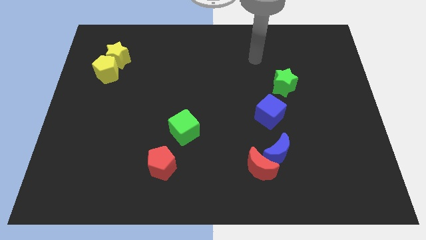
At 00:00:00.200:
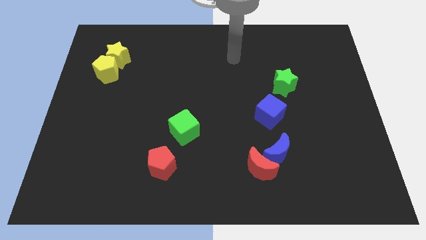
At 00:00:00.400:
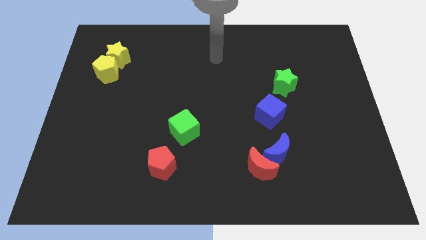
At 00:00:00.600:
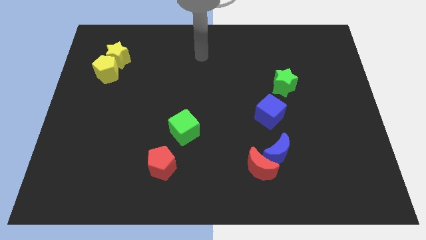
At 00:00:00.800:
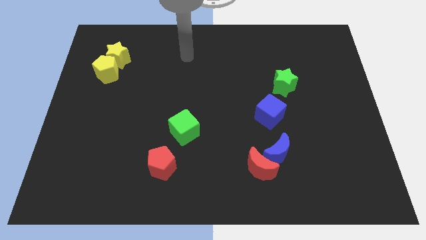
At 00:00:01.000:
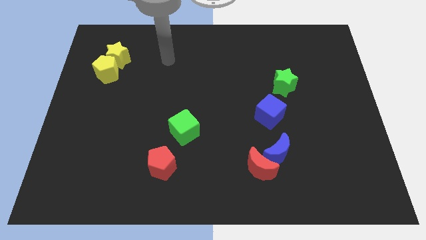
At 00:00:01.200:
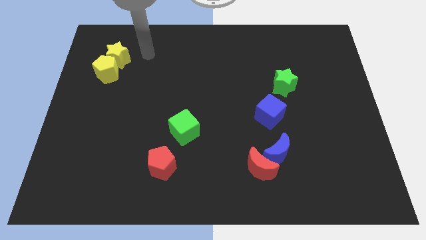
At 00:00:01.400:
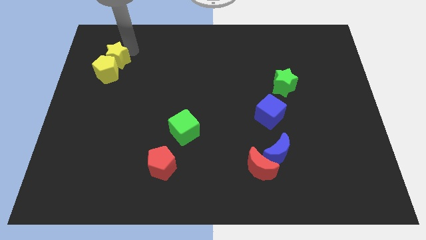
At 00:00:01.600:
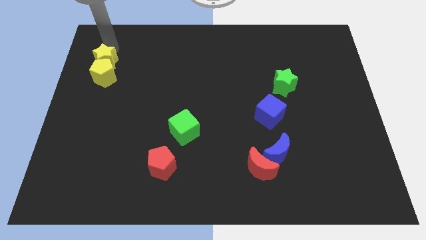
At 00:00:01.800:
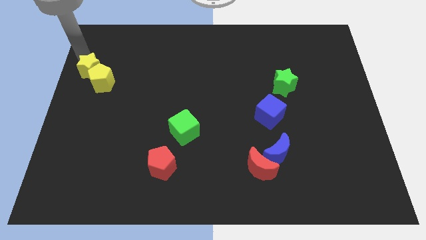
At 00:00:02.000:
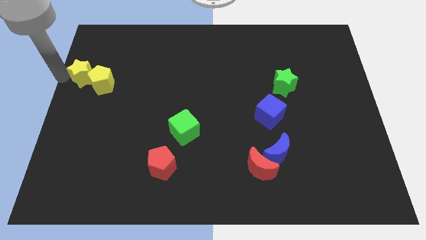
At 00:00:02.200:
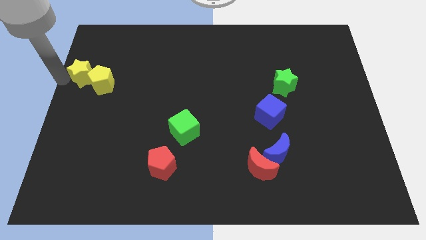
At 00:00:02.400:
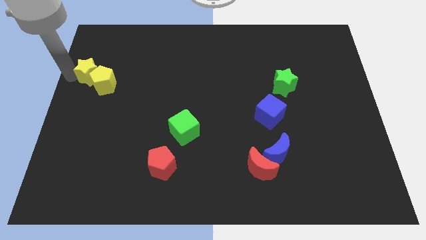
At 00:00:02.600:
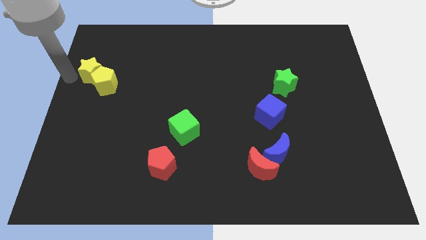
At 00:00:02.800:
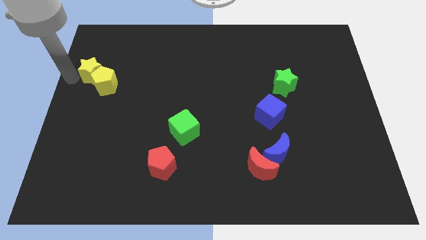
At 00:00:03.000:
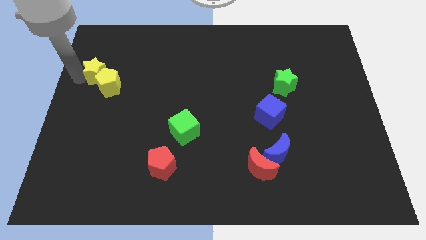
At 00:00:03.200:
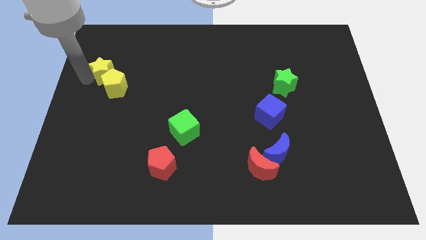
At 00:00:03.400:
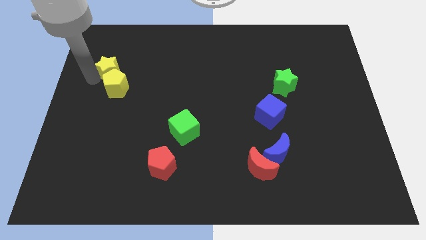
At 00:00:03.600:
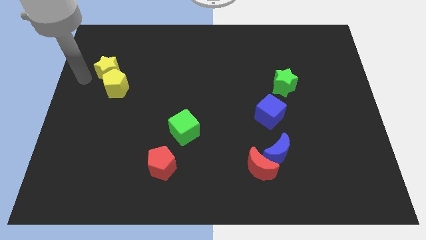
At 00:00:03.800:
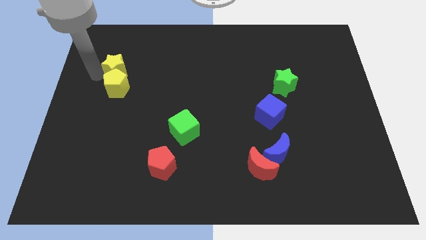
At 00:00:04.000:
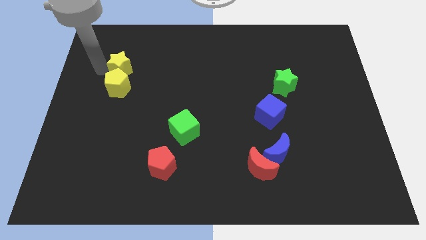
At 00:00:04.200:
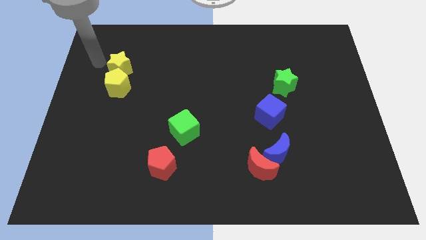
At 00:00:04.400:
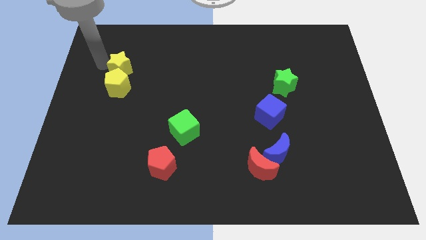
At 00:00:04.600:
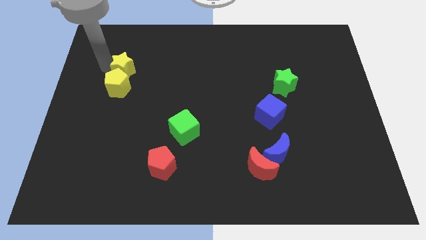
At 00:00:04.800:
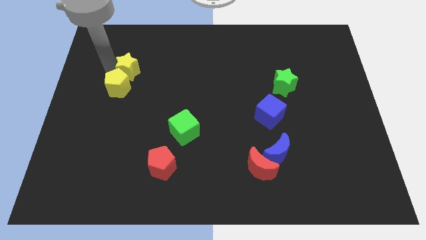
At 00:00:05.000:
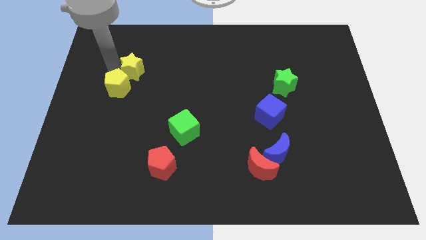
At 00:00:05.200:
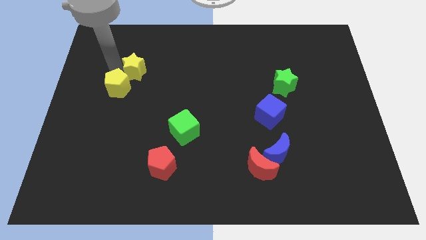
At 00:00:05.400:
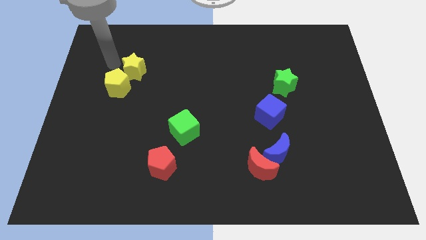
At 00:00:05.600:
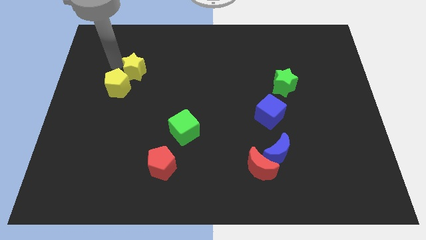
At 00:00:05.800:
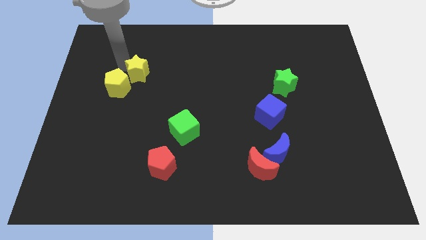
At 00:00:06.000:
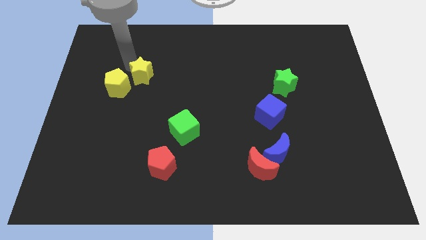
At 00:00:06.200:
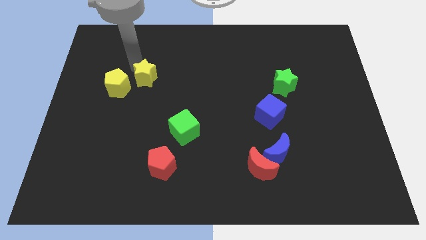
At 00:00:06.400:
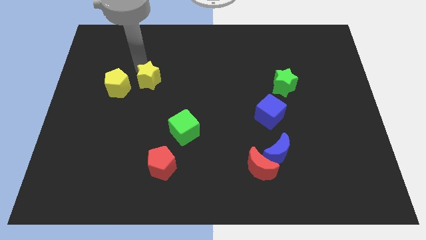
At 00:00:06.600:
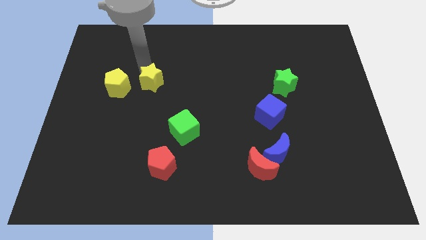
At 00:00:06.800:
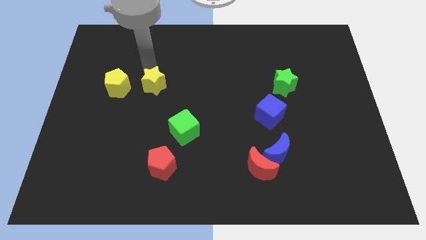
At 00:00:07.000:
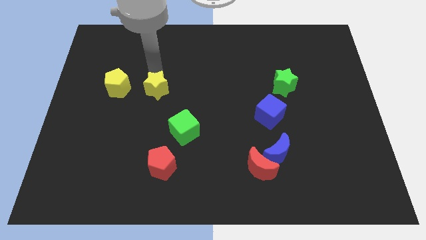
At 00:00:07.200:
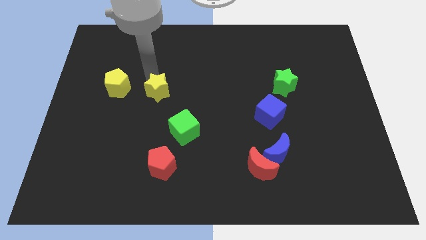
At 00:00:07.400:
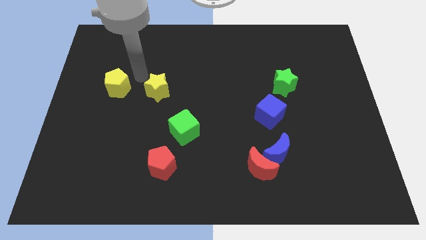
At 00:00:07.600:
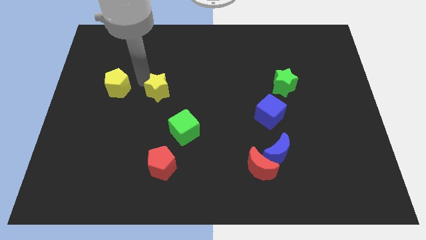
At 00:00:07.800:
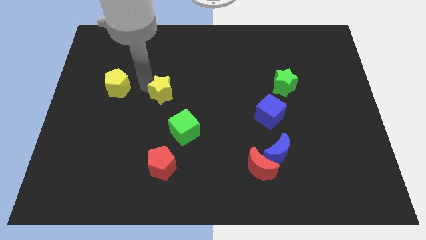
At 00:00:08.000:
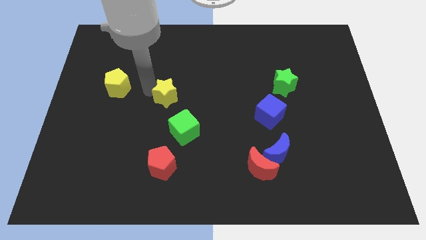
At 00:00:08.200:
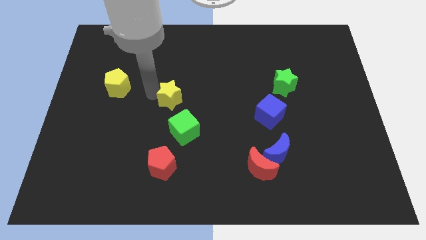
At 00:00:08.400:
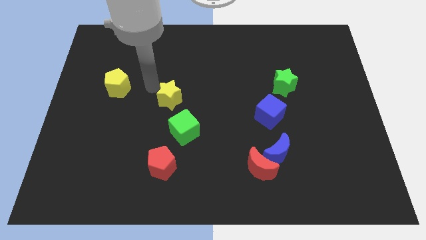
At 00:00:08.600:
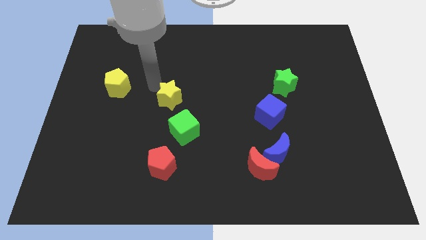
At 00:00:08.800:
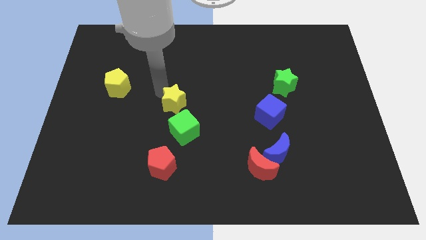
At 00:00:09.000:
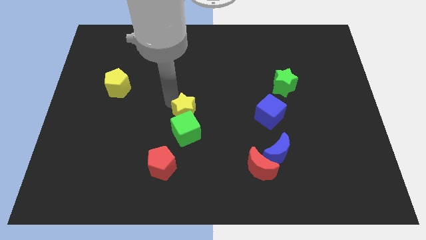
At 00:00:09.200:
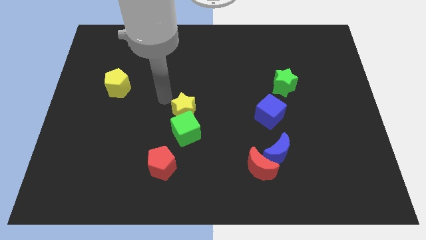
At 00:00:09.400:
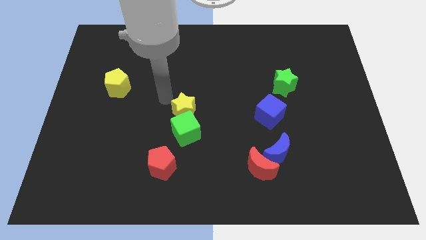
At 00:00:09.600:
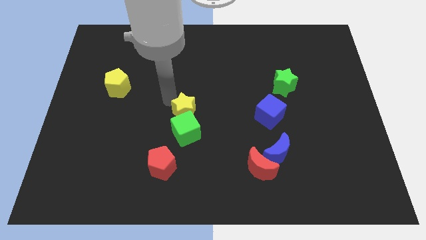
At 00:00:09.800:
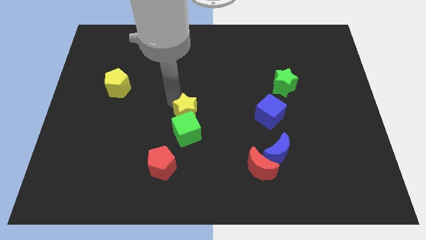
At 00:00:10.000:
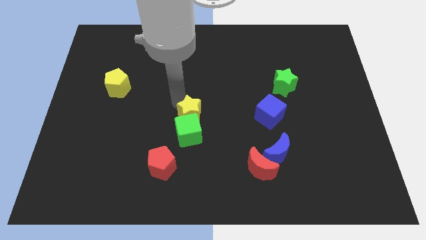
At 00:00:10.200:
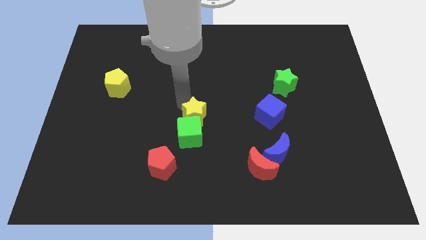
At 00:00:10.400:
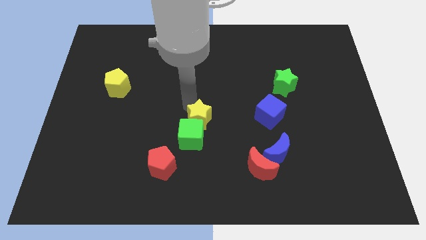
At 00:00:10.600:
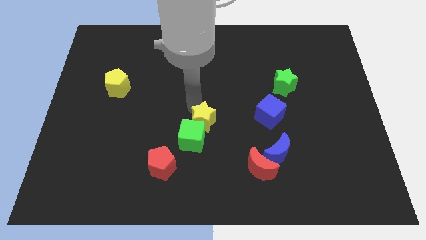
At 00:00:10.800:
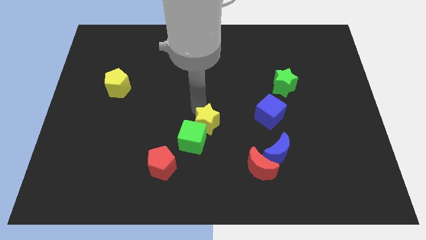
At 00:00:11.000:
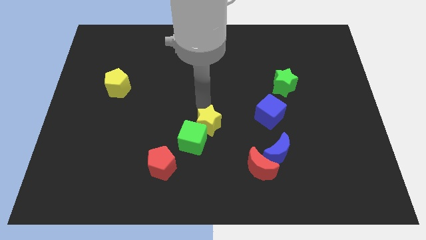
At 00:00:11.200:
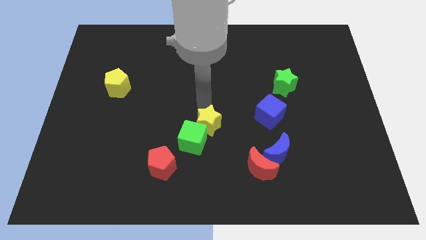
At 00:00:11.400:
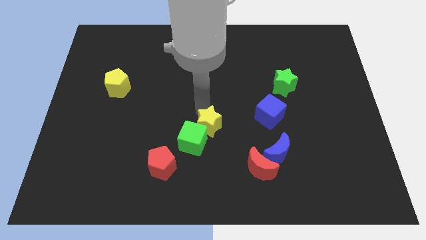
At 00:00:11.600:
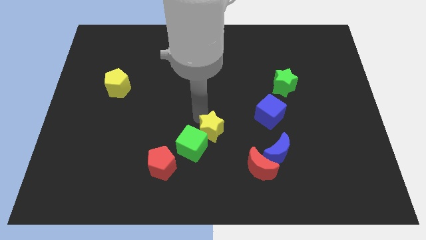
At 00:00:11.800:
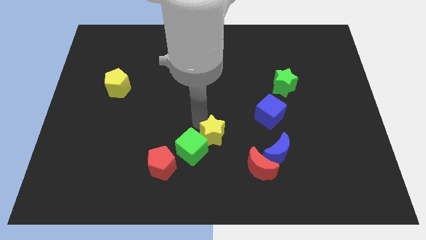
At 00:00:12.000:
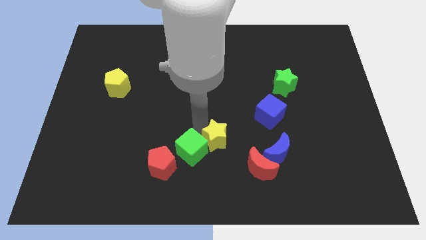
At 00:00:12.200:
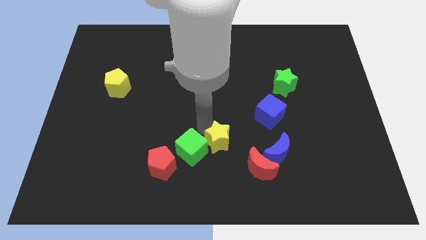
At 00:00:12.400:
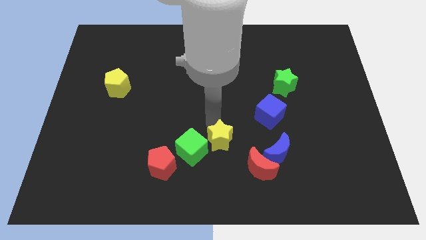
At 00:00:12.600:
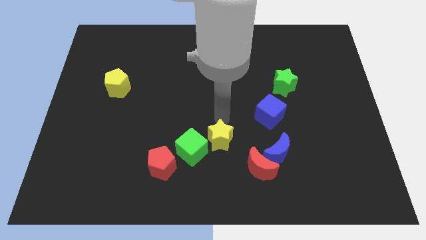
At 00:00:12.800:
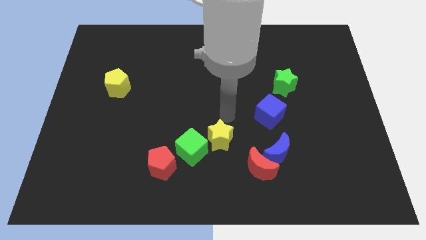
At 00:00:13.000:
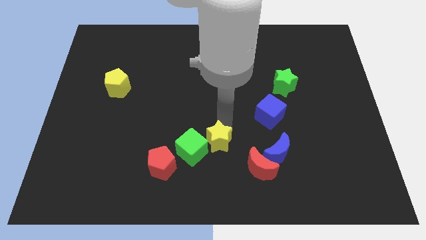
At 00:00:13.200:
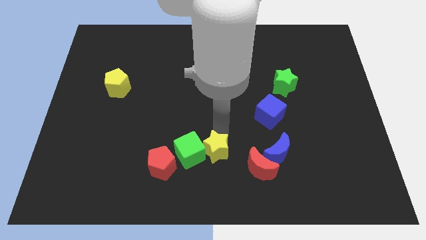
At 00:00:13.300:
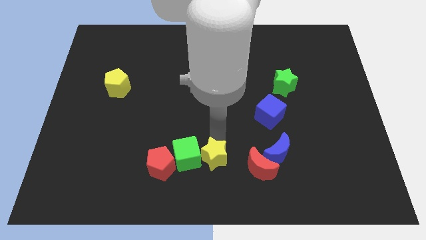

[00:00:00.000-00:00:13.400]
put the yellow star to the bottom side
